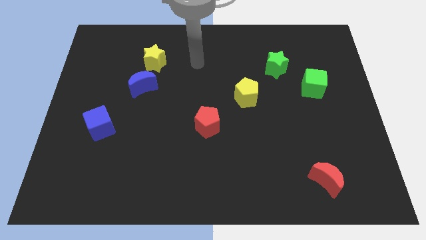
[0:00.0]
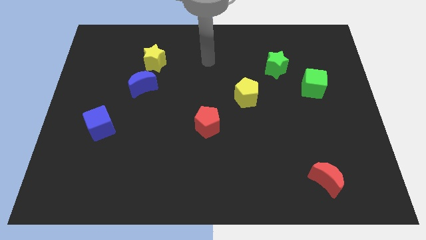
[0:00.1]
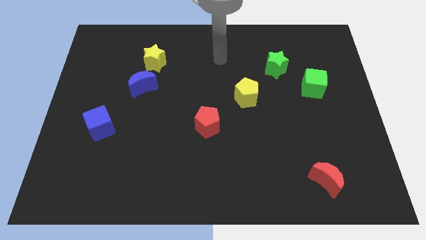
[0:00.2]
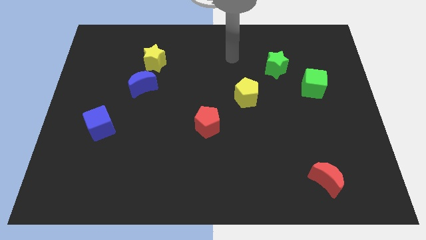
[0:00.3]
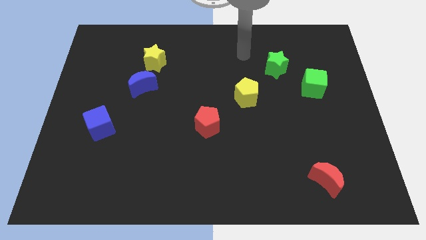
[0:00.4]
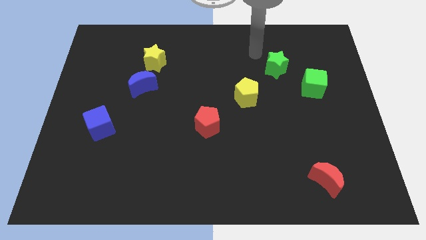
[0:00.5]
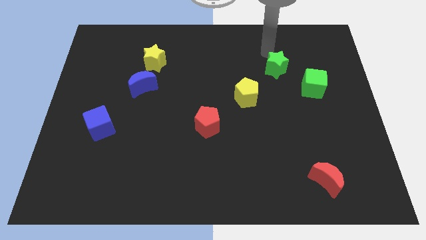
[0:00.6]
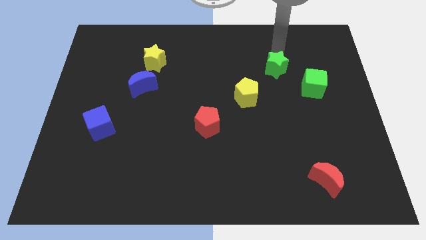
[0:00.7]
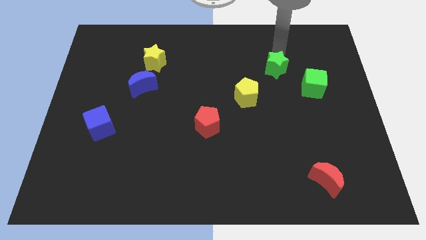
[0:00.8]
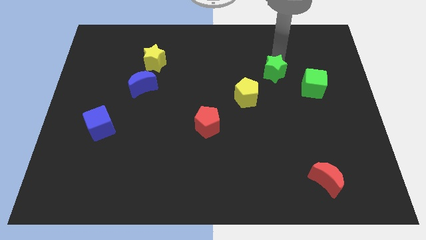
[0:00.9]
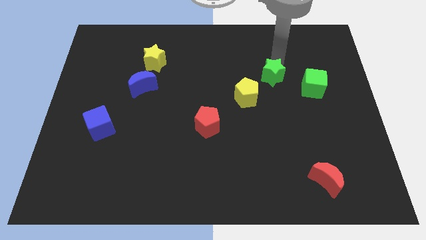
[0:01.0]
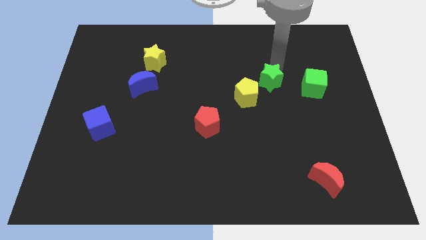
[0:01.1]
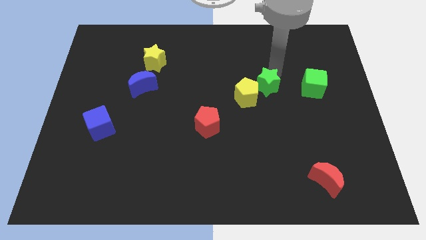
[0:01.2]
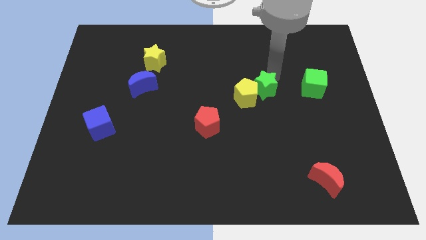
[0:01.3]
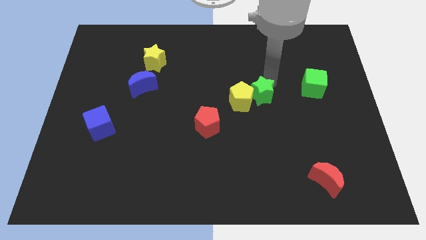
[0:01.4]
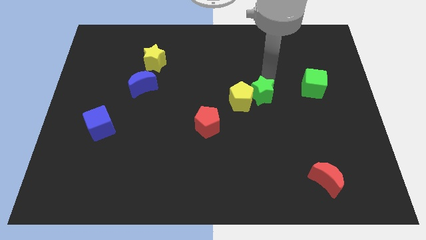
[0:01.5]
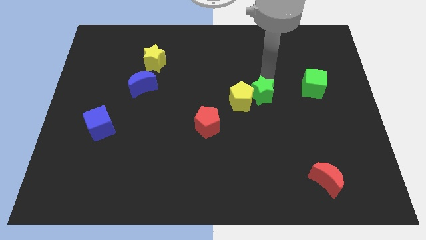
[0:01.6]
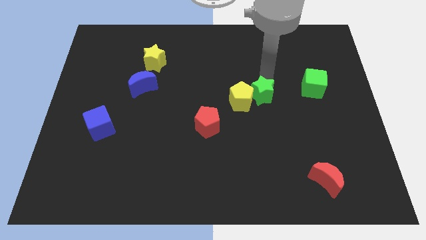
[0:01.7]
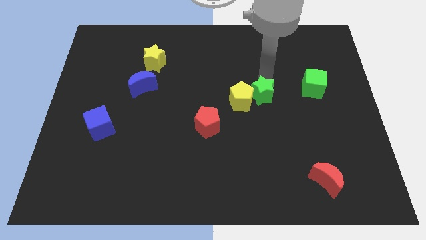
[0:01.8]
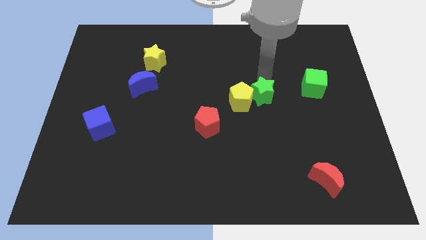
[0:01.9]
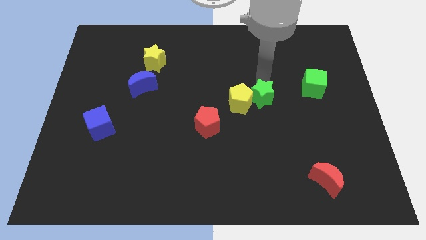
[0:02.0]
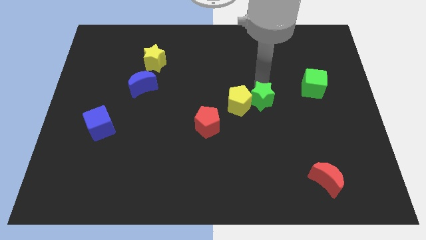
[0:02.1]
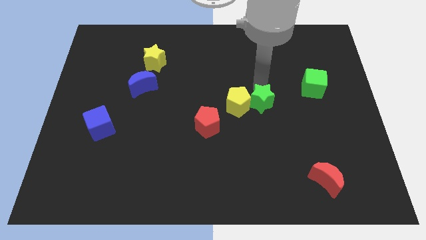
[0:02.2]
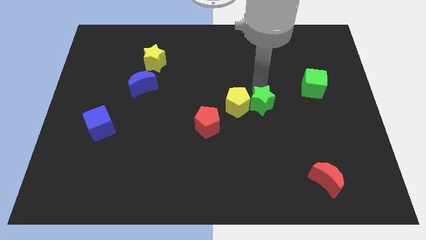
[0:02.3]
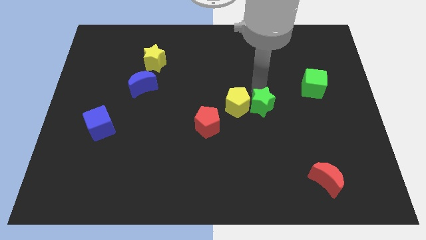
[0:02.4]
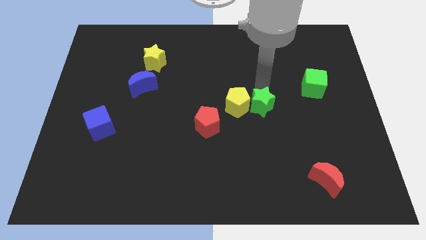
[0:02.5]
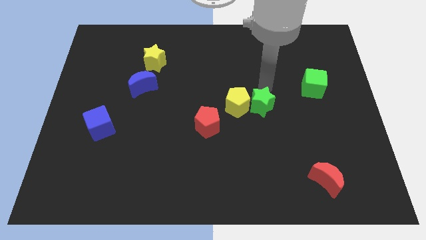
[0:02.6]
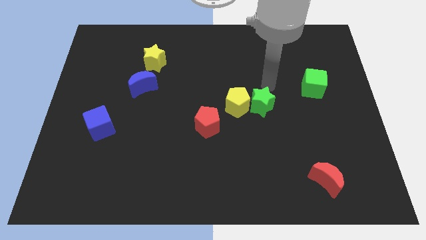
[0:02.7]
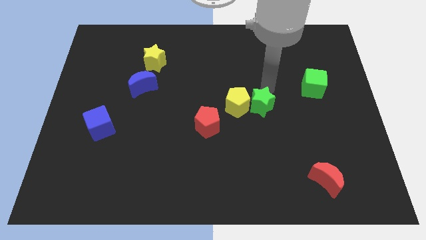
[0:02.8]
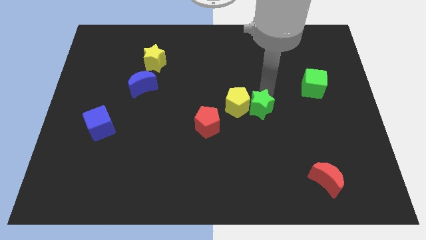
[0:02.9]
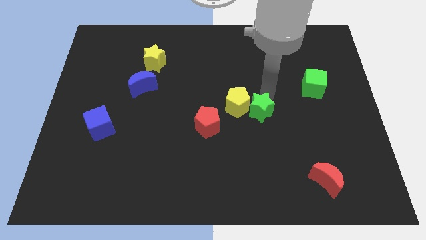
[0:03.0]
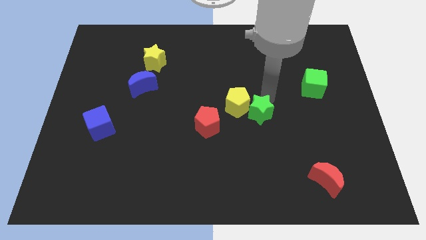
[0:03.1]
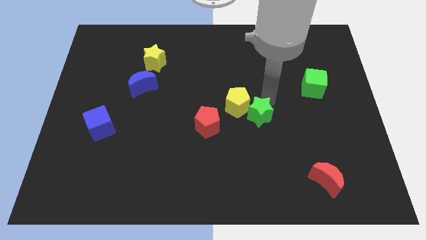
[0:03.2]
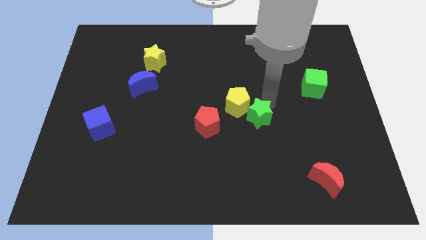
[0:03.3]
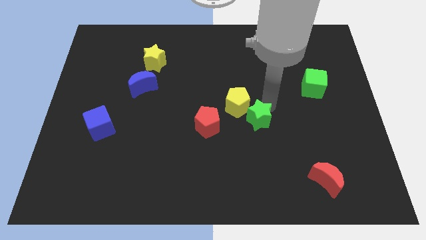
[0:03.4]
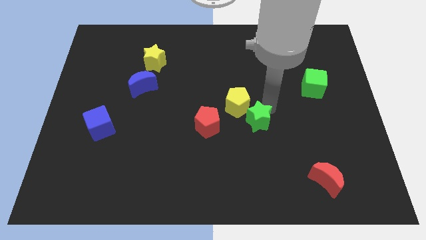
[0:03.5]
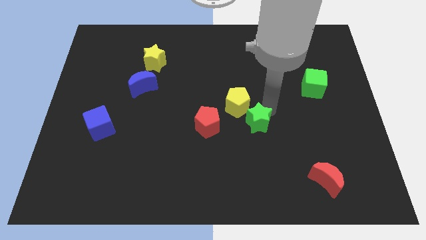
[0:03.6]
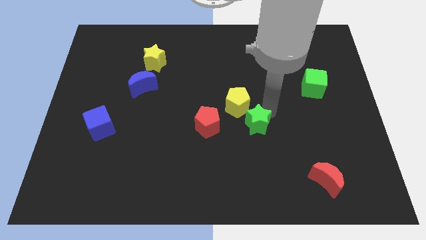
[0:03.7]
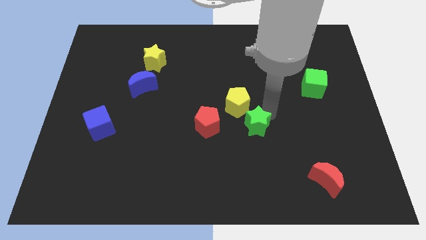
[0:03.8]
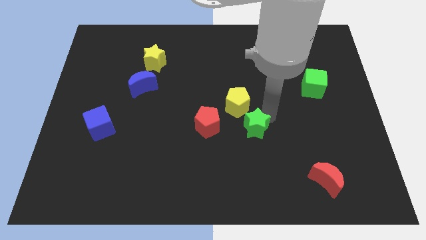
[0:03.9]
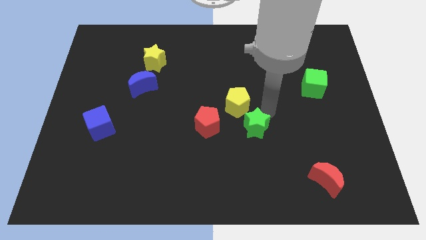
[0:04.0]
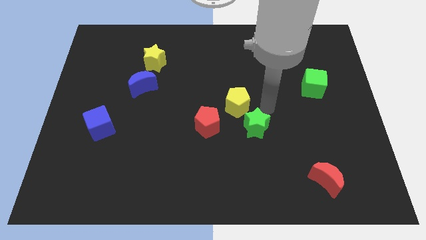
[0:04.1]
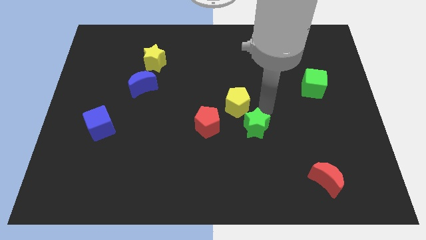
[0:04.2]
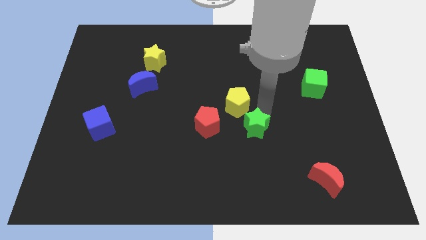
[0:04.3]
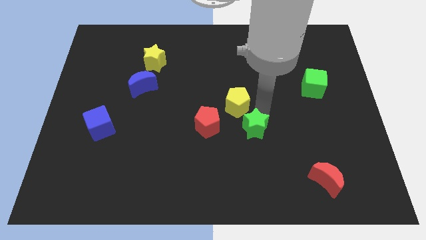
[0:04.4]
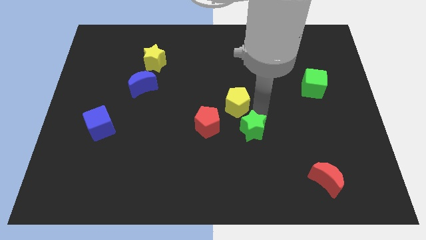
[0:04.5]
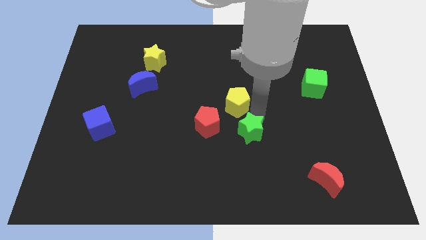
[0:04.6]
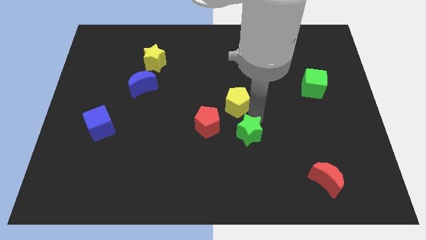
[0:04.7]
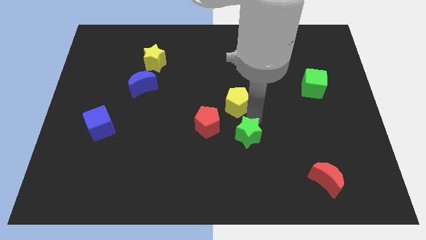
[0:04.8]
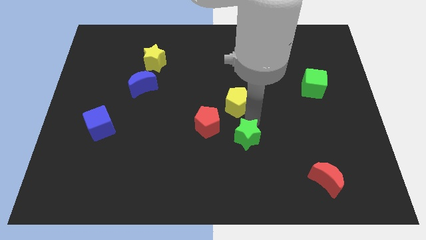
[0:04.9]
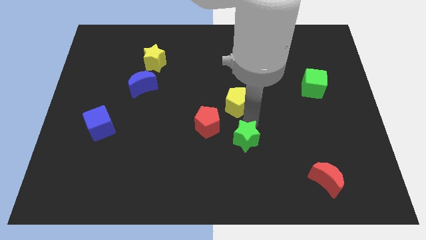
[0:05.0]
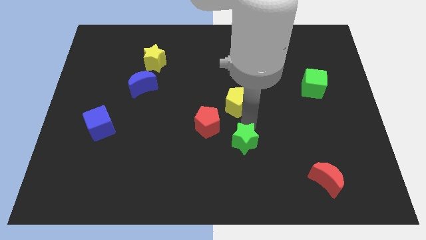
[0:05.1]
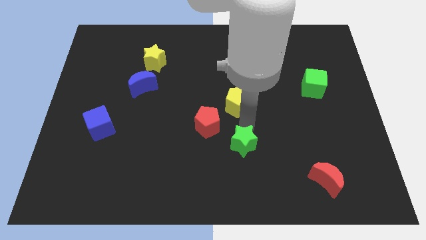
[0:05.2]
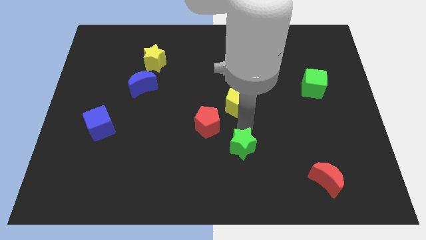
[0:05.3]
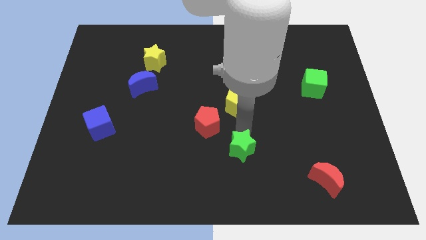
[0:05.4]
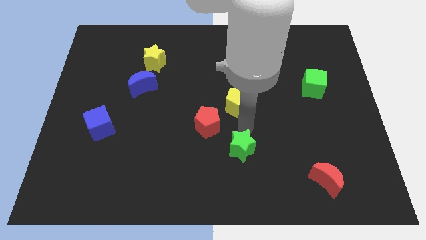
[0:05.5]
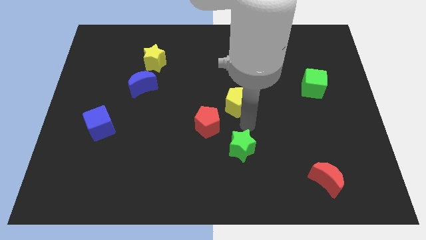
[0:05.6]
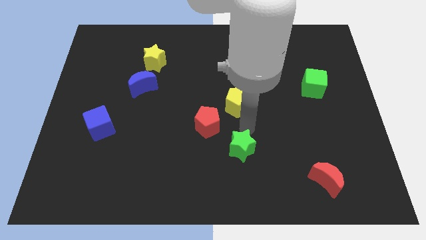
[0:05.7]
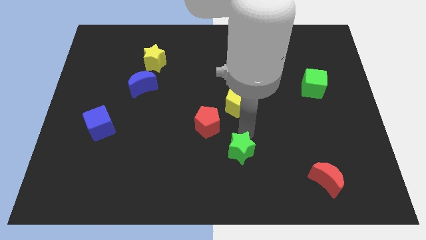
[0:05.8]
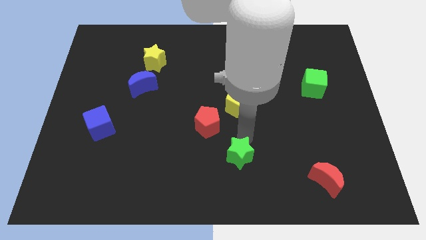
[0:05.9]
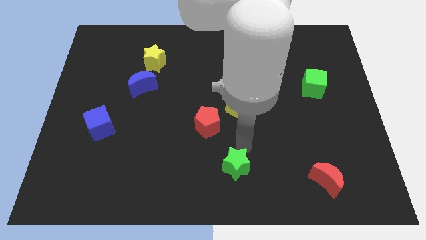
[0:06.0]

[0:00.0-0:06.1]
push the green star to the bottom

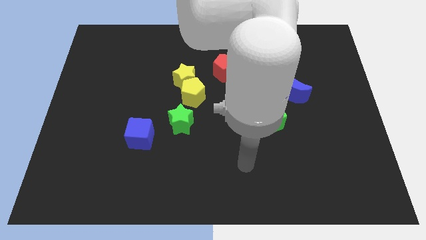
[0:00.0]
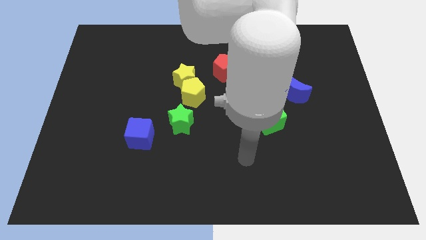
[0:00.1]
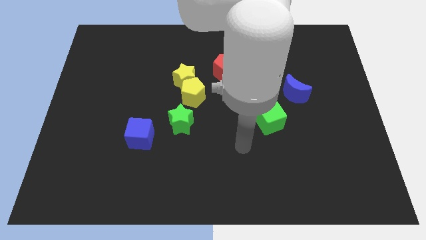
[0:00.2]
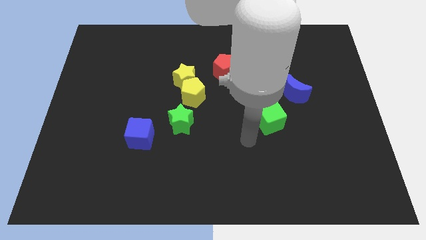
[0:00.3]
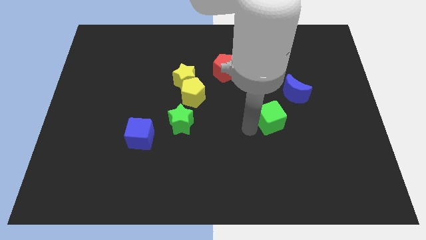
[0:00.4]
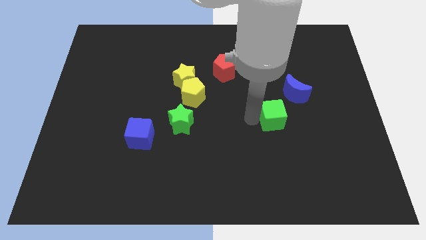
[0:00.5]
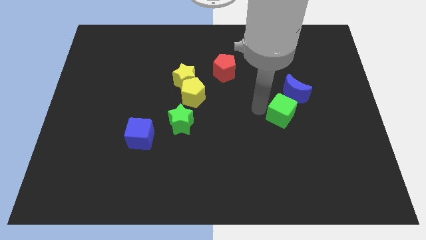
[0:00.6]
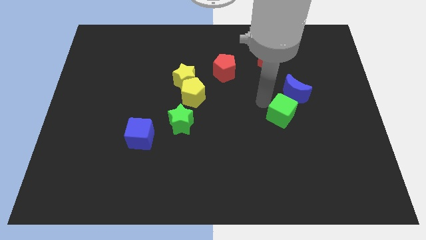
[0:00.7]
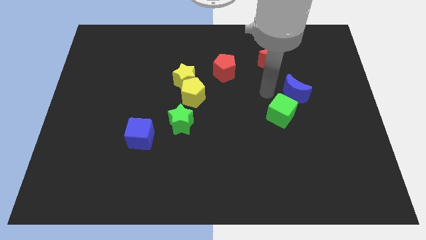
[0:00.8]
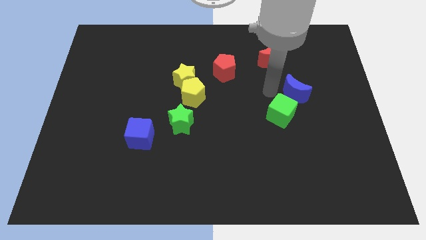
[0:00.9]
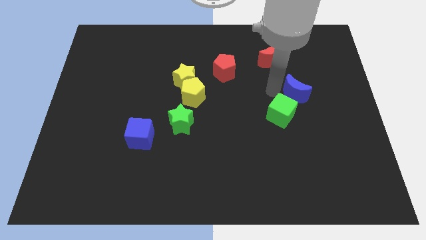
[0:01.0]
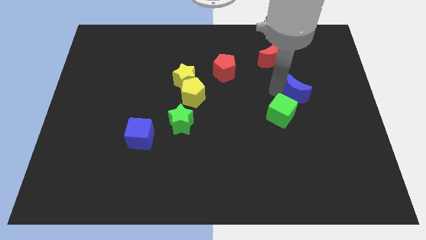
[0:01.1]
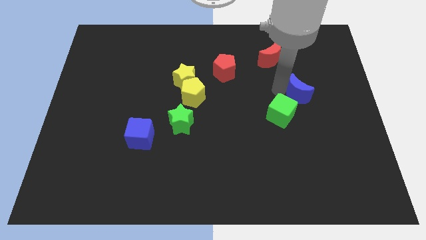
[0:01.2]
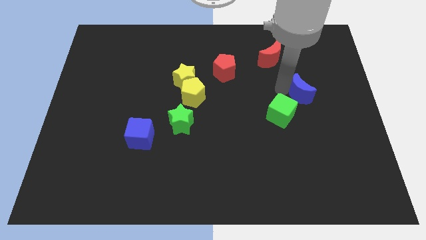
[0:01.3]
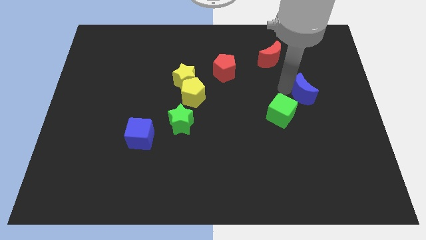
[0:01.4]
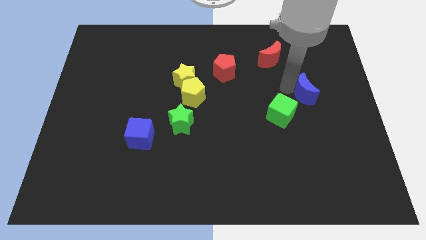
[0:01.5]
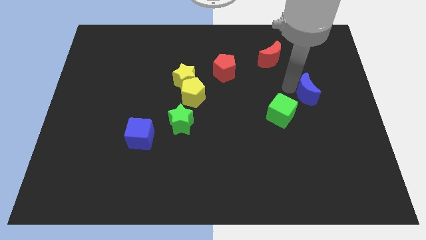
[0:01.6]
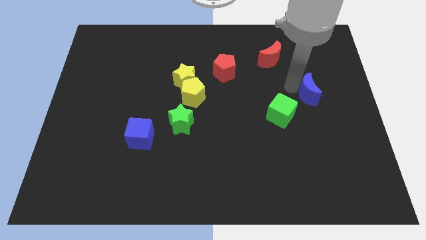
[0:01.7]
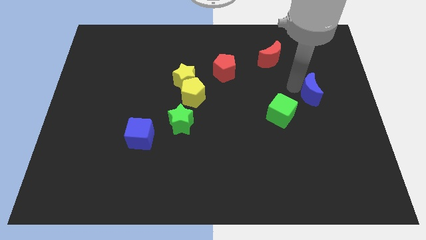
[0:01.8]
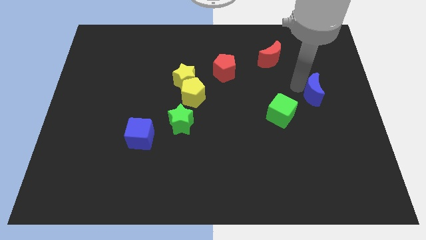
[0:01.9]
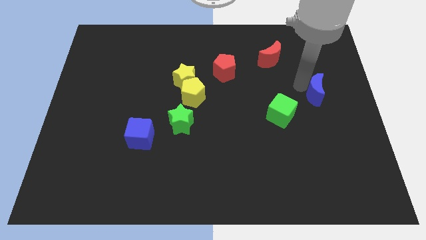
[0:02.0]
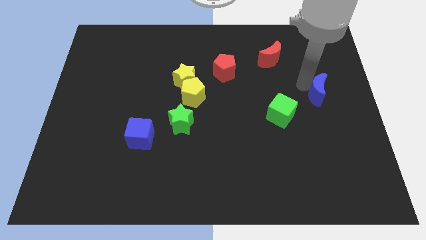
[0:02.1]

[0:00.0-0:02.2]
push the blue moon to the right side
